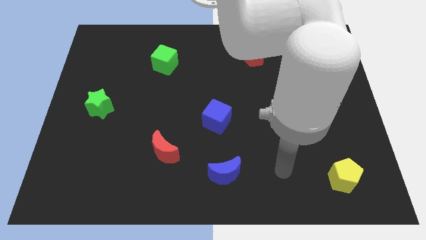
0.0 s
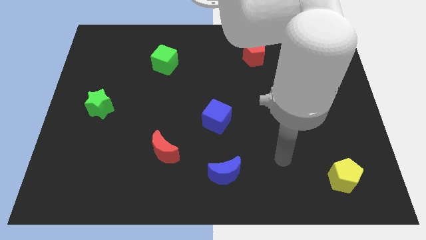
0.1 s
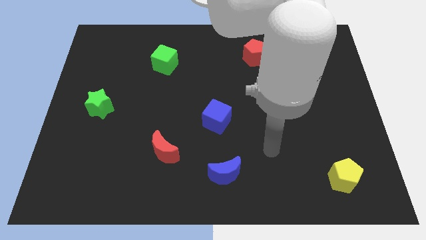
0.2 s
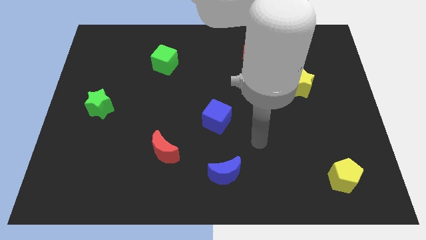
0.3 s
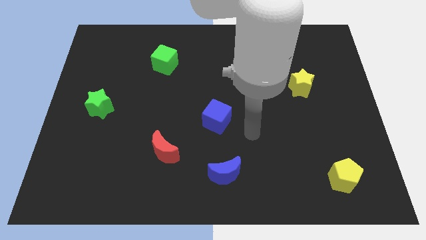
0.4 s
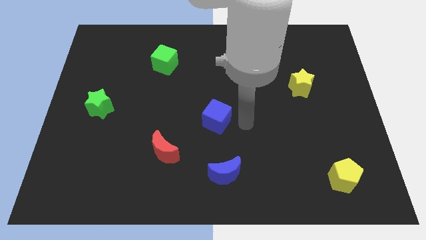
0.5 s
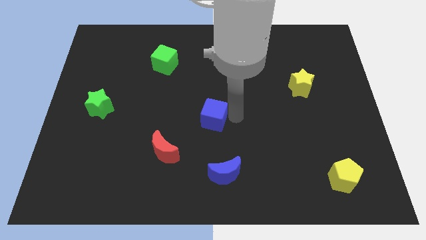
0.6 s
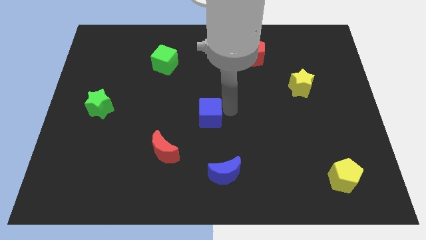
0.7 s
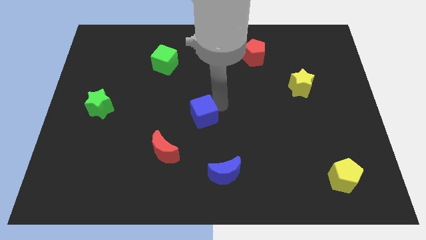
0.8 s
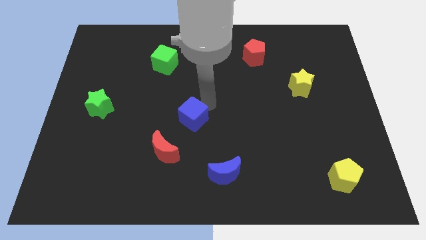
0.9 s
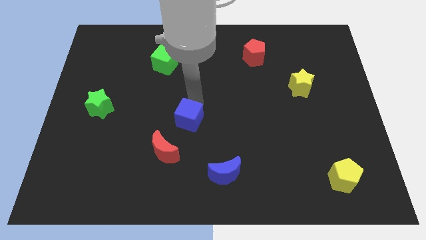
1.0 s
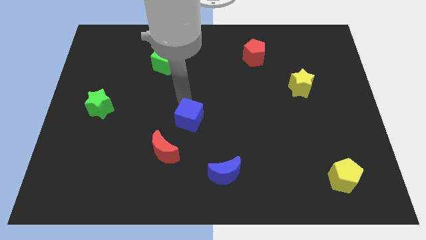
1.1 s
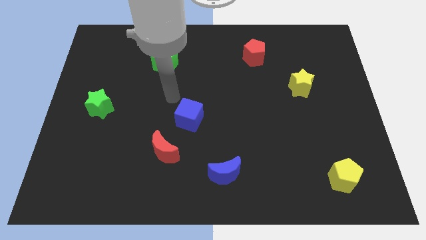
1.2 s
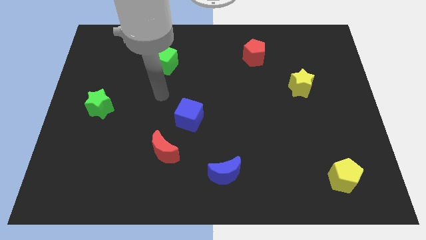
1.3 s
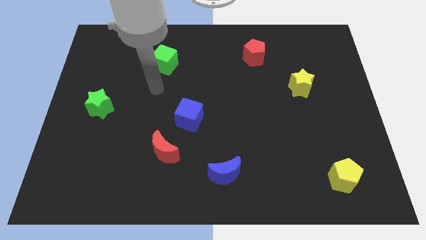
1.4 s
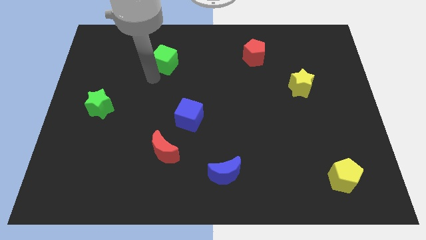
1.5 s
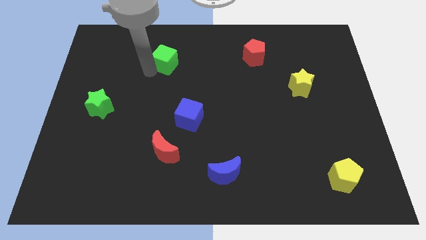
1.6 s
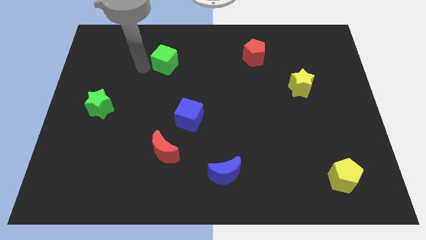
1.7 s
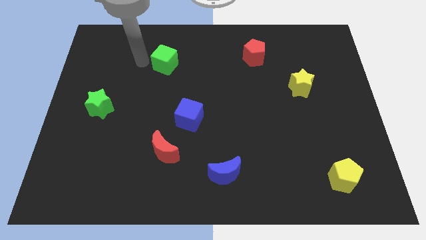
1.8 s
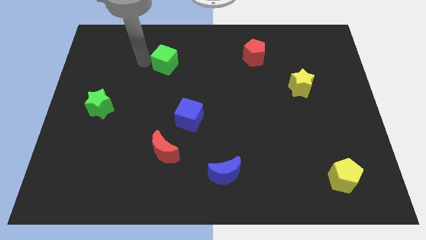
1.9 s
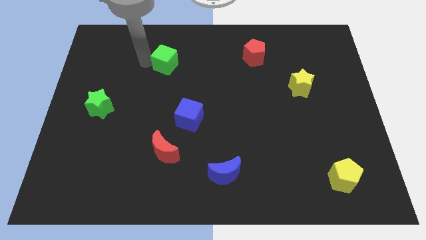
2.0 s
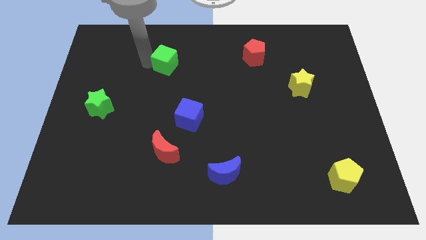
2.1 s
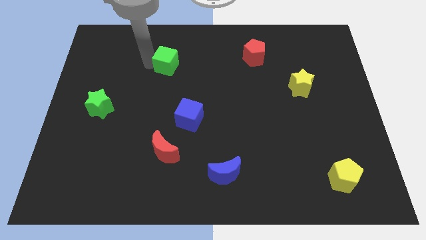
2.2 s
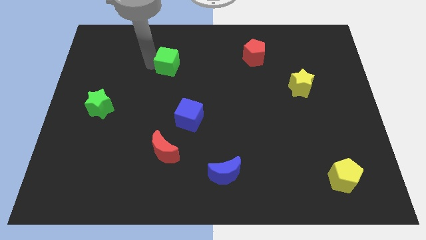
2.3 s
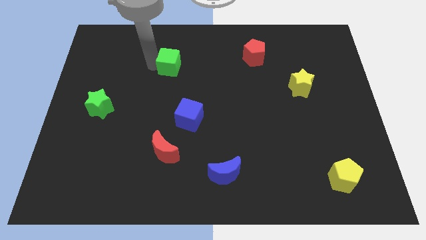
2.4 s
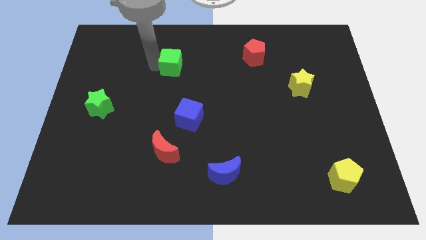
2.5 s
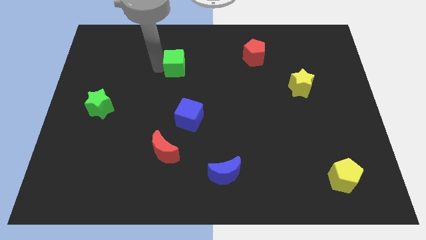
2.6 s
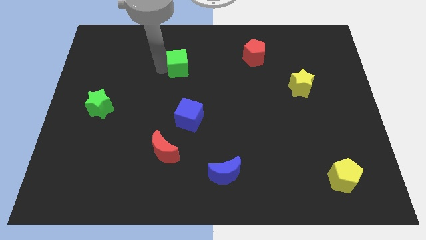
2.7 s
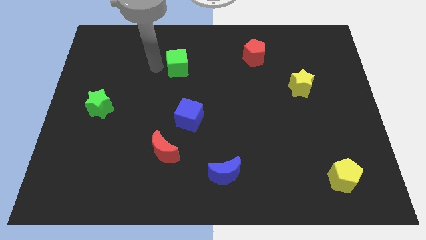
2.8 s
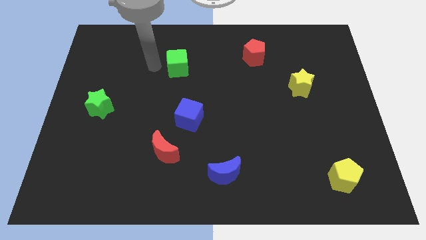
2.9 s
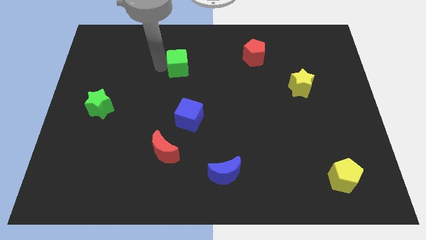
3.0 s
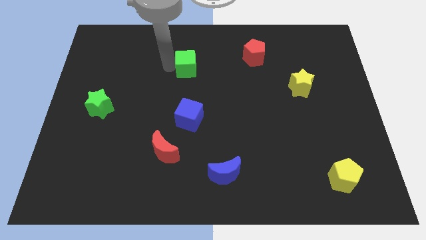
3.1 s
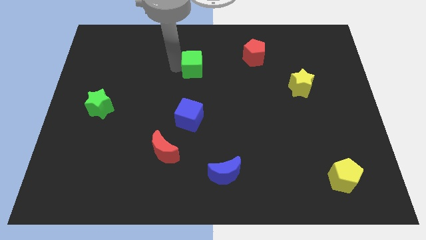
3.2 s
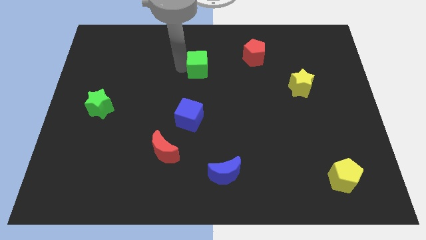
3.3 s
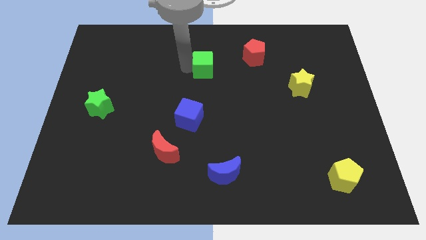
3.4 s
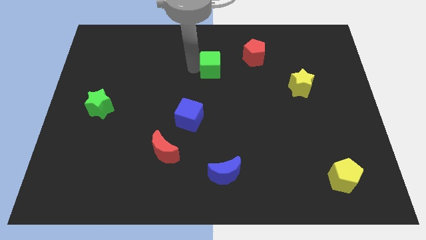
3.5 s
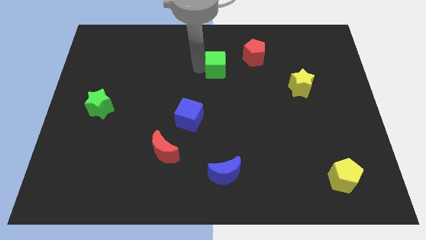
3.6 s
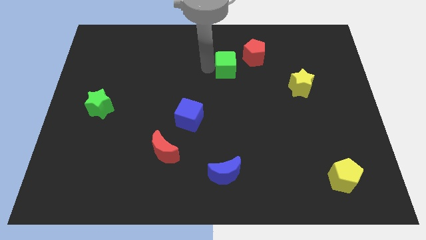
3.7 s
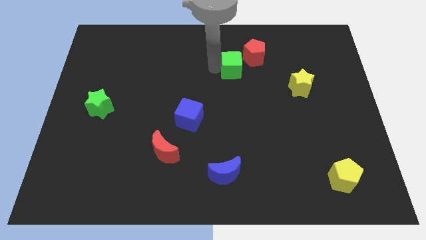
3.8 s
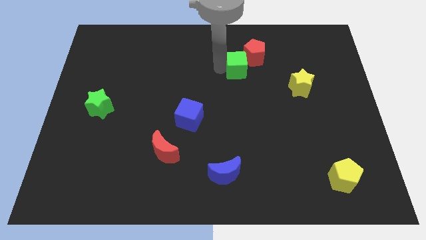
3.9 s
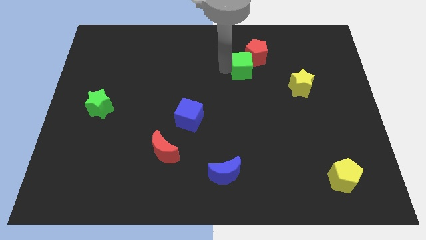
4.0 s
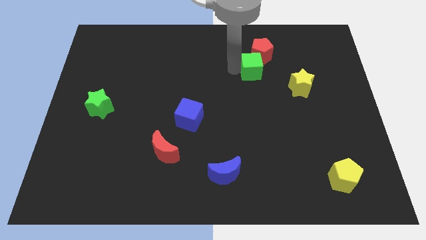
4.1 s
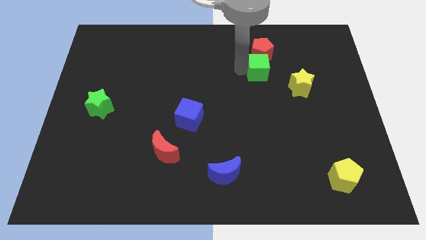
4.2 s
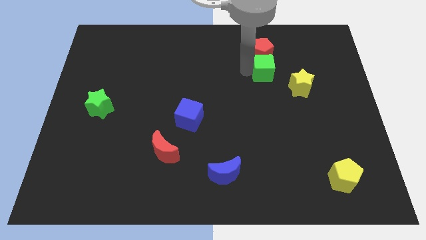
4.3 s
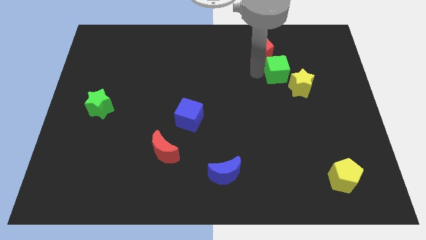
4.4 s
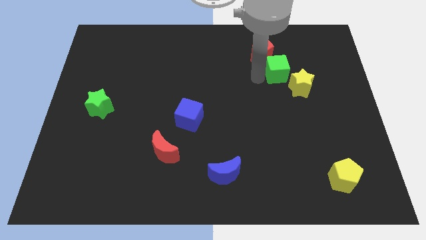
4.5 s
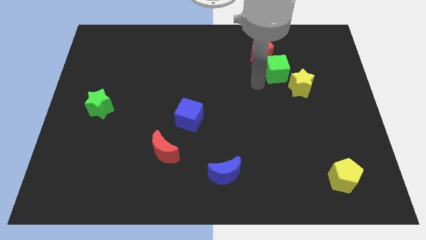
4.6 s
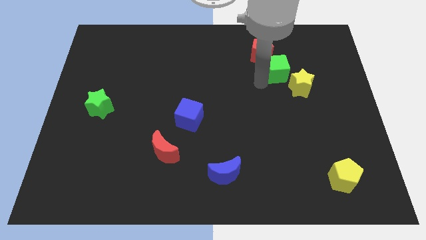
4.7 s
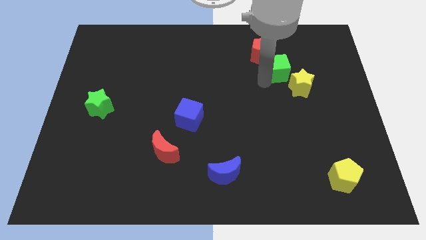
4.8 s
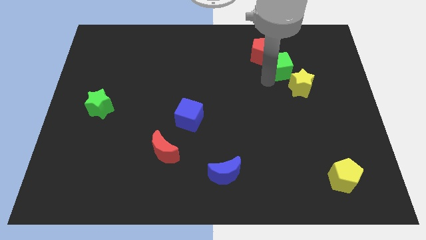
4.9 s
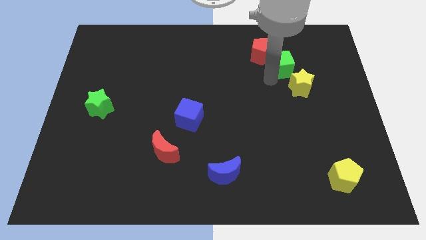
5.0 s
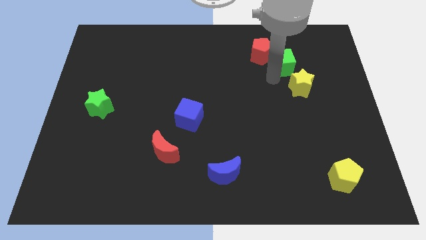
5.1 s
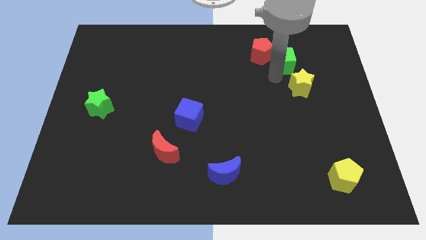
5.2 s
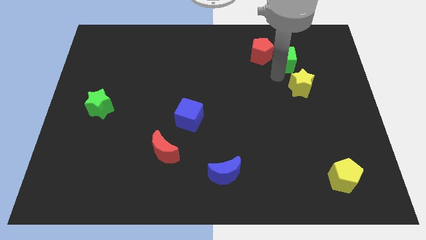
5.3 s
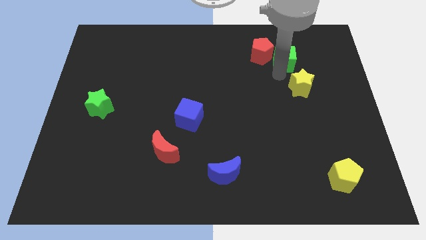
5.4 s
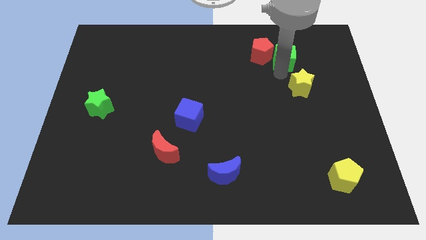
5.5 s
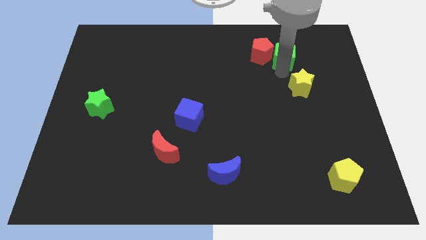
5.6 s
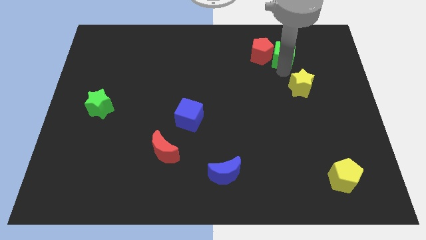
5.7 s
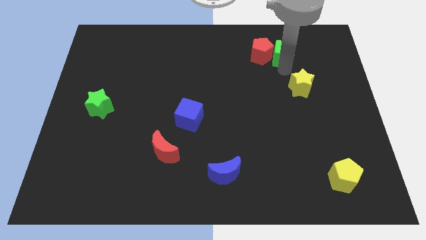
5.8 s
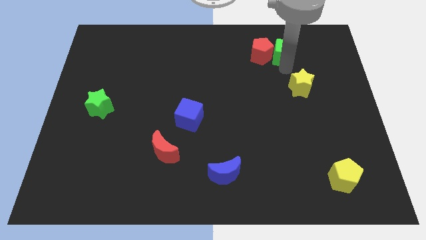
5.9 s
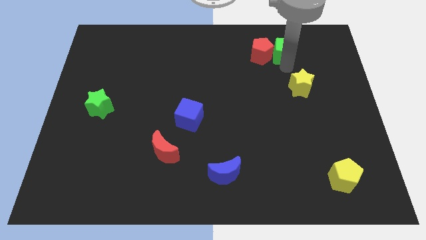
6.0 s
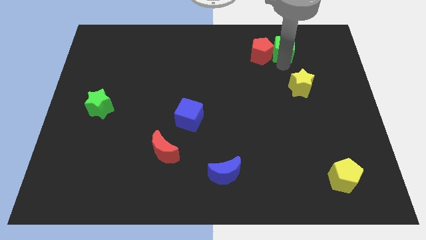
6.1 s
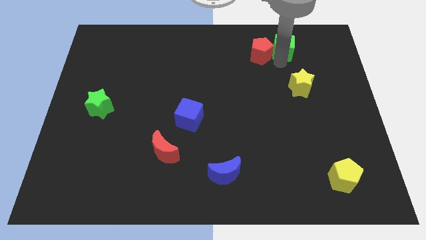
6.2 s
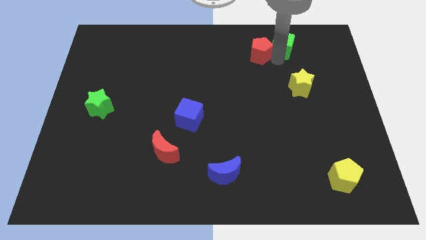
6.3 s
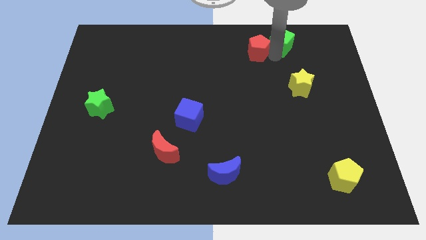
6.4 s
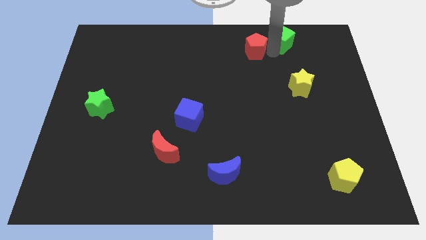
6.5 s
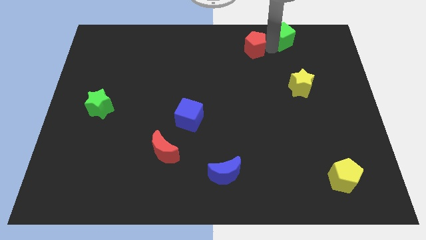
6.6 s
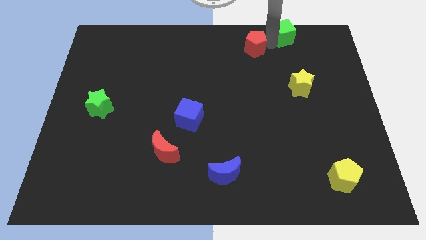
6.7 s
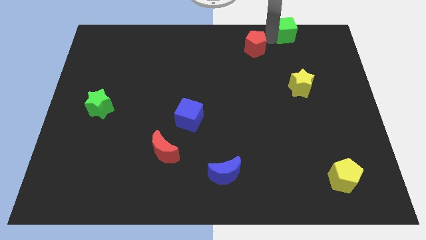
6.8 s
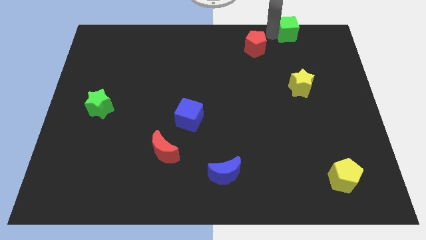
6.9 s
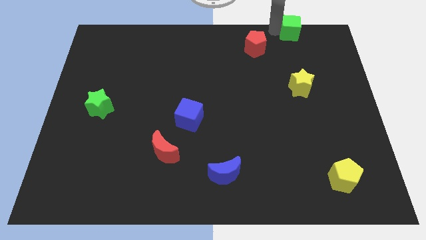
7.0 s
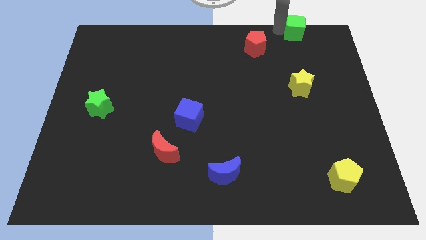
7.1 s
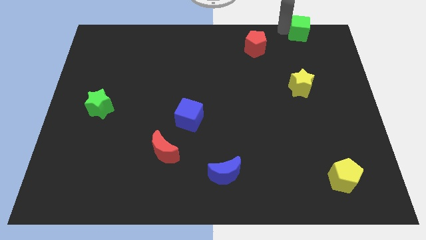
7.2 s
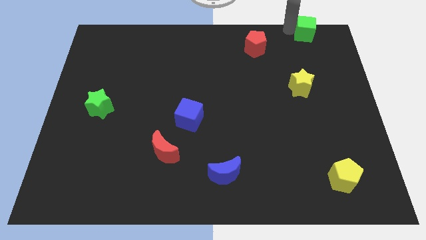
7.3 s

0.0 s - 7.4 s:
put the green cube to the upper right corner
